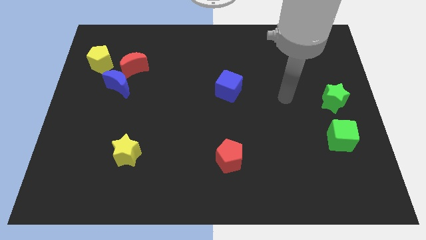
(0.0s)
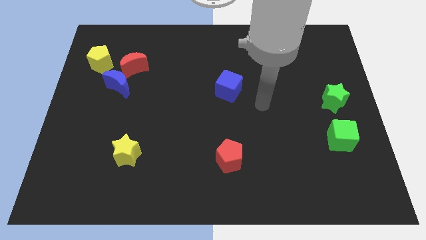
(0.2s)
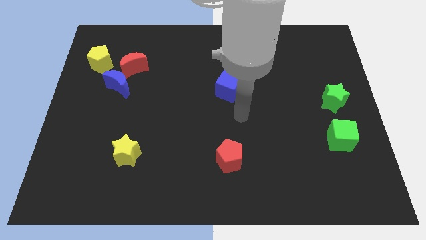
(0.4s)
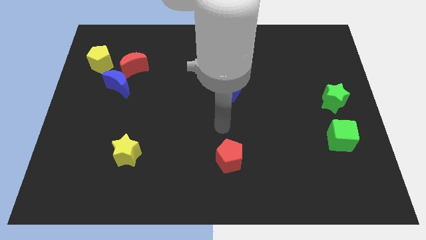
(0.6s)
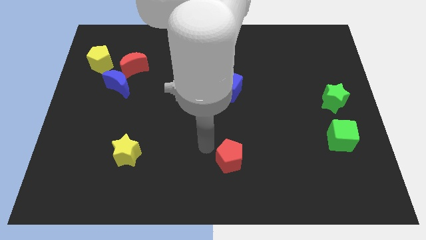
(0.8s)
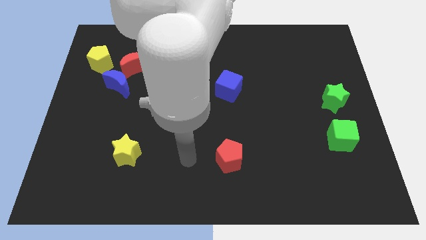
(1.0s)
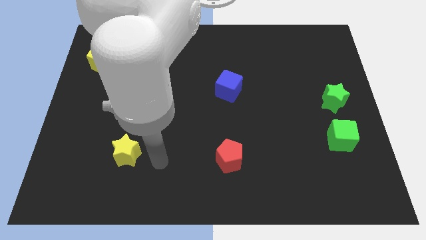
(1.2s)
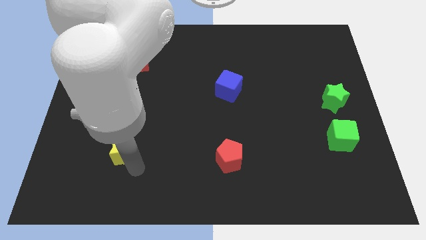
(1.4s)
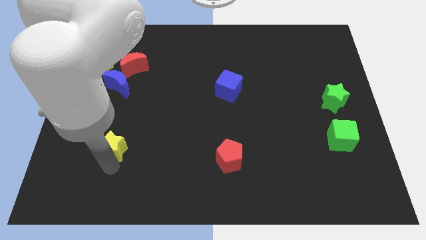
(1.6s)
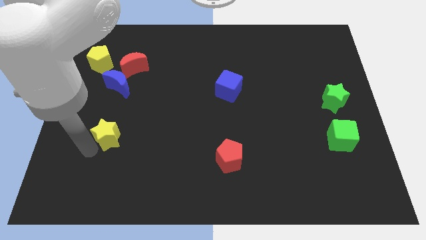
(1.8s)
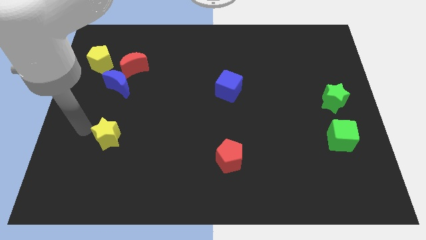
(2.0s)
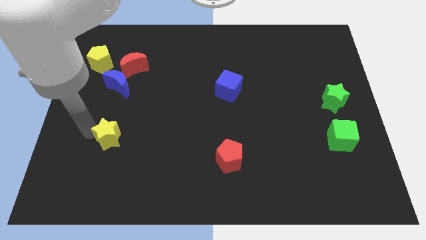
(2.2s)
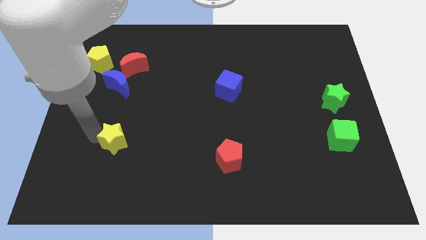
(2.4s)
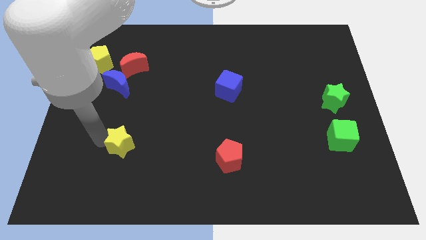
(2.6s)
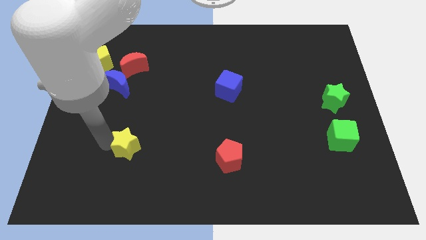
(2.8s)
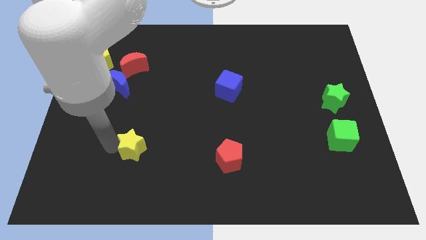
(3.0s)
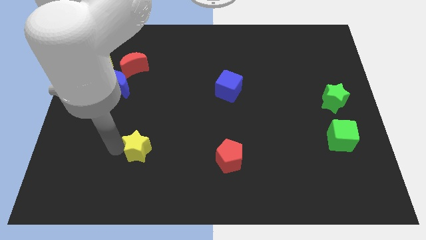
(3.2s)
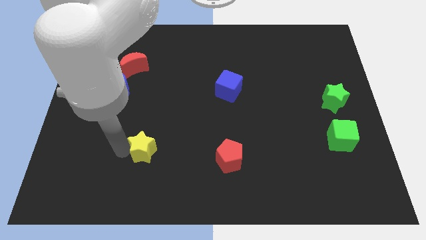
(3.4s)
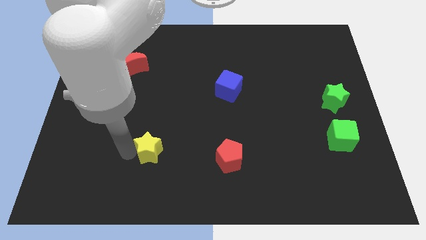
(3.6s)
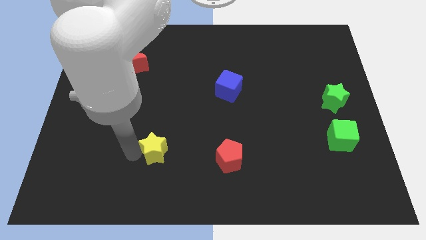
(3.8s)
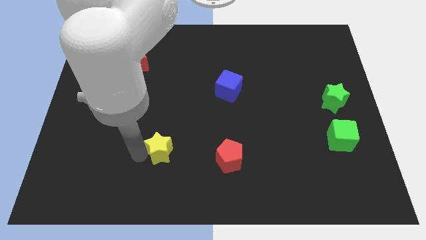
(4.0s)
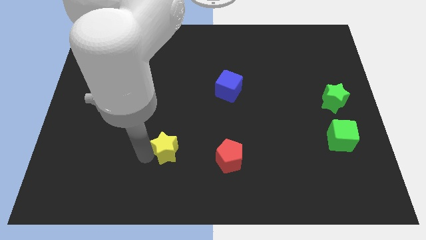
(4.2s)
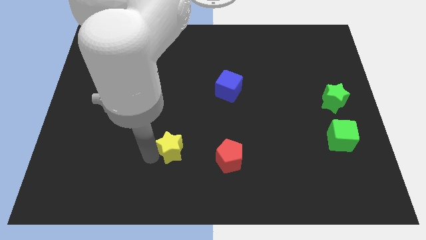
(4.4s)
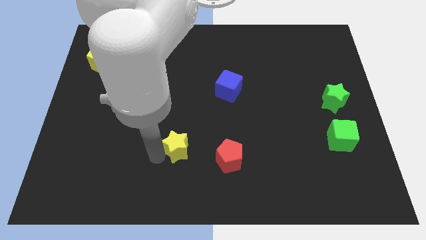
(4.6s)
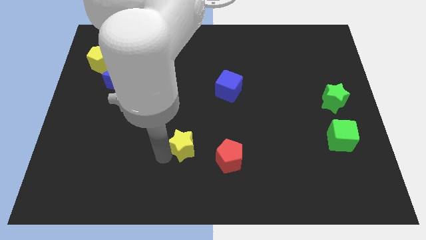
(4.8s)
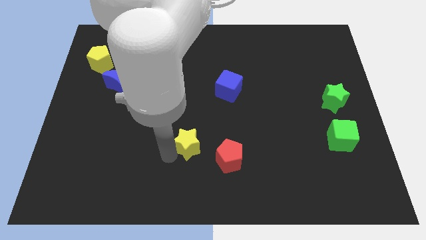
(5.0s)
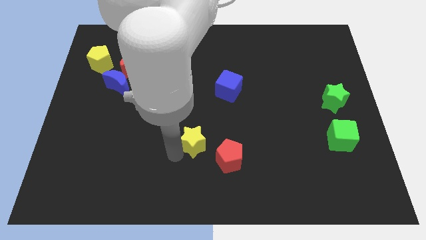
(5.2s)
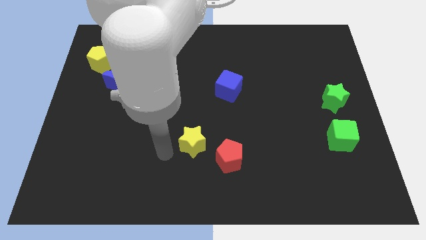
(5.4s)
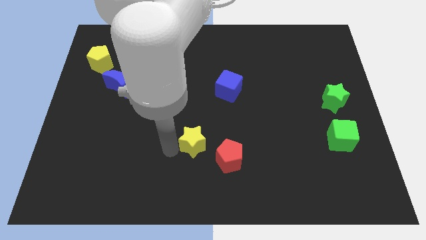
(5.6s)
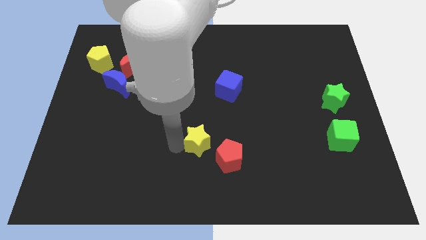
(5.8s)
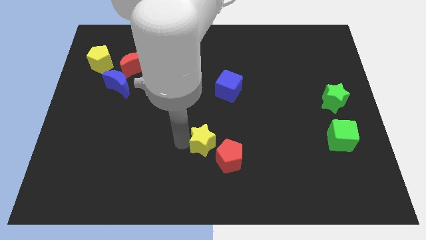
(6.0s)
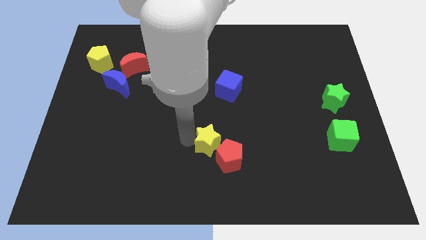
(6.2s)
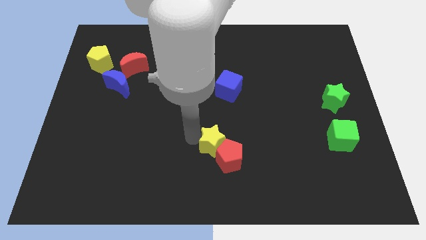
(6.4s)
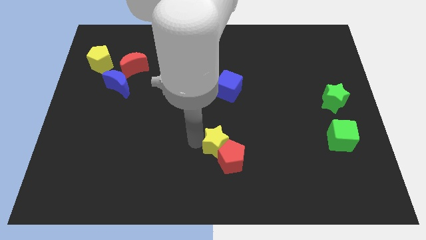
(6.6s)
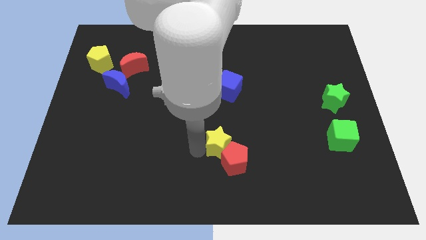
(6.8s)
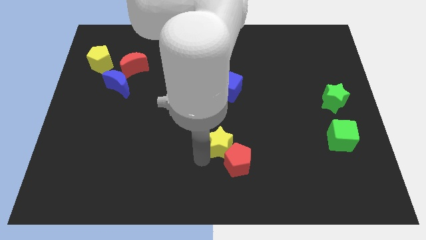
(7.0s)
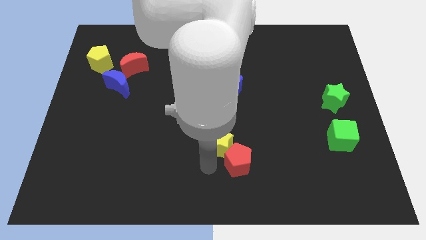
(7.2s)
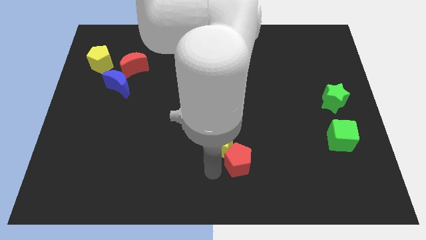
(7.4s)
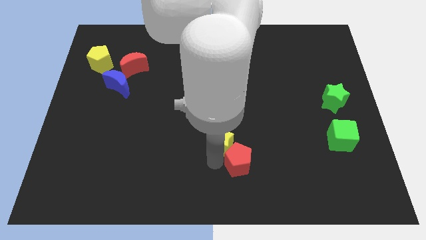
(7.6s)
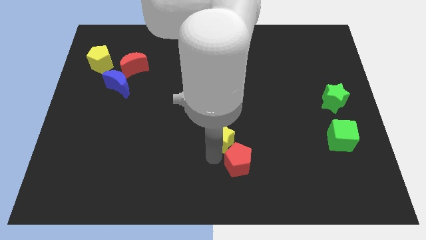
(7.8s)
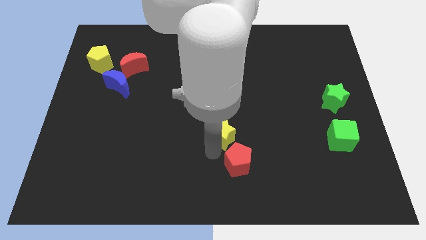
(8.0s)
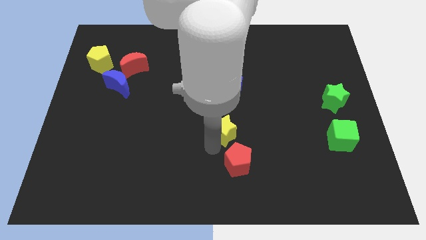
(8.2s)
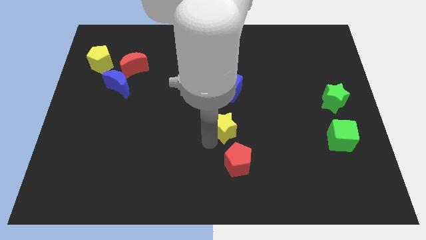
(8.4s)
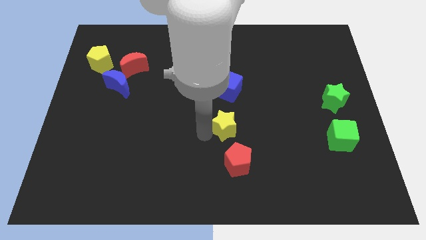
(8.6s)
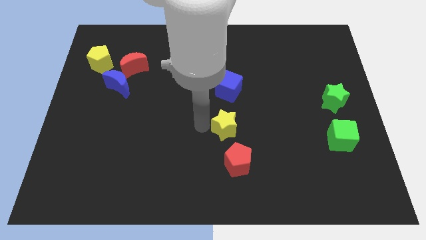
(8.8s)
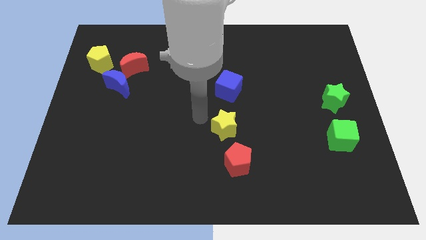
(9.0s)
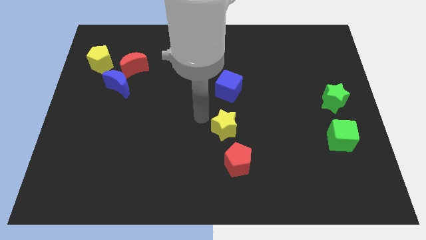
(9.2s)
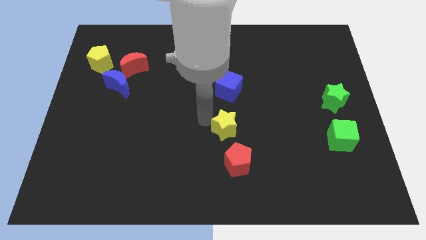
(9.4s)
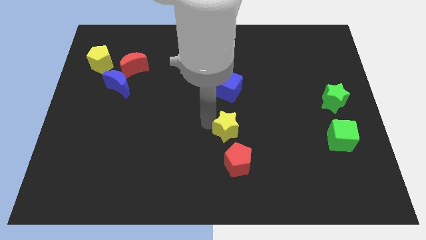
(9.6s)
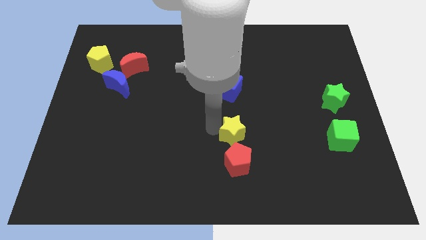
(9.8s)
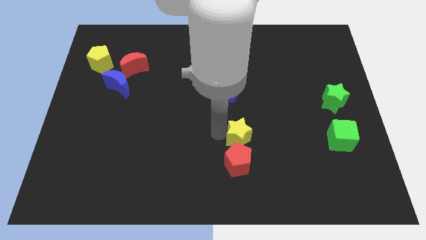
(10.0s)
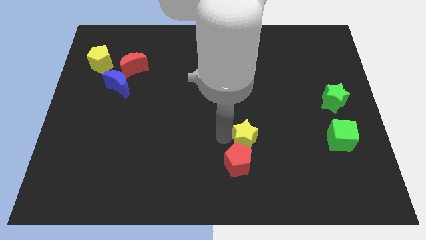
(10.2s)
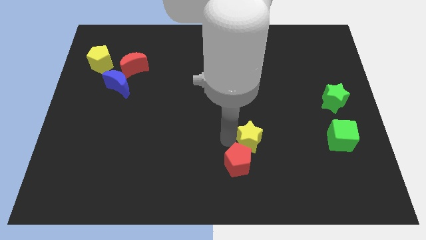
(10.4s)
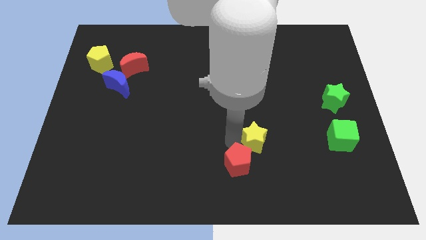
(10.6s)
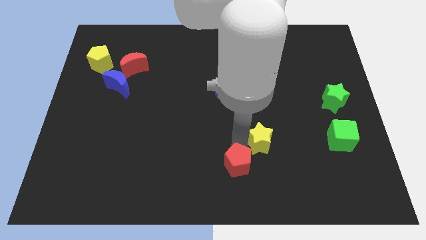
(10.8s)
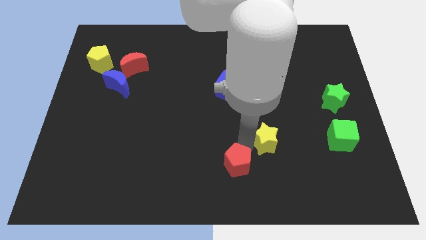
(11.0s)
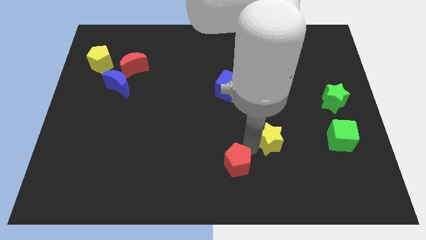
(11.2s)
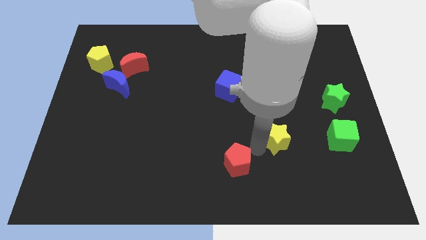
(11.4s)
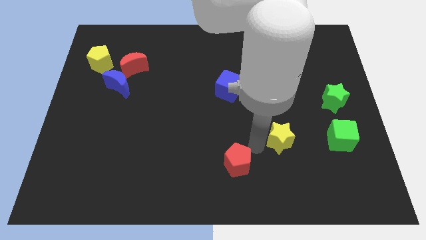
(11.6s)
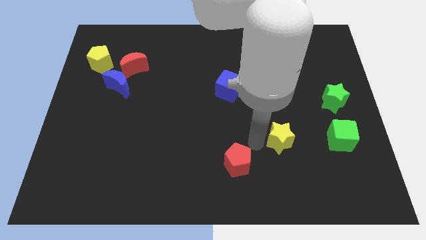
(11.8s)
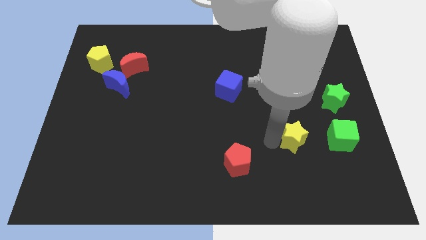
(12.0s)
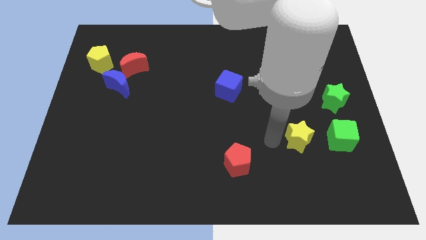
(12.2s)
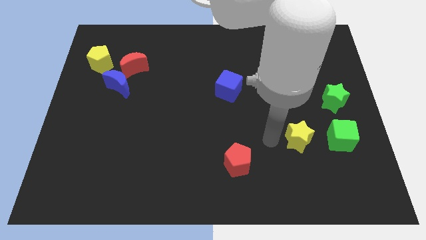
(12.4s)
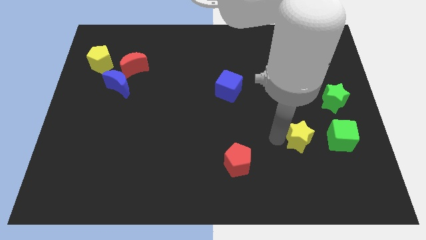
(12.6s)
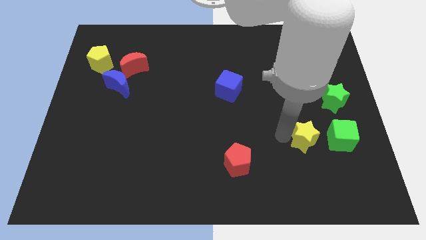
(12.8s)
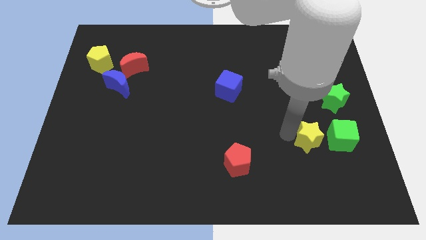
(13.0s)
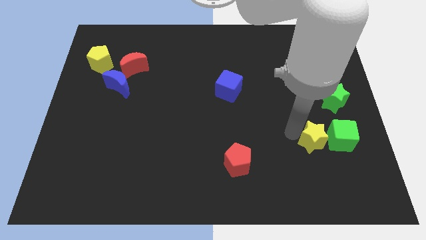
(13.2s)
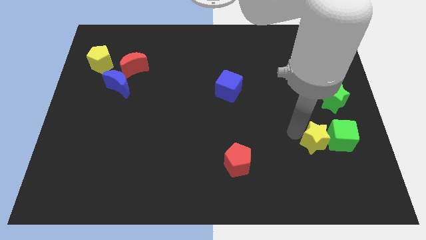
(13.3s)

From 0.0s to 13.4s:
slide the yellow star next to the green cube

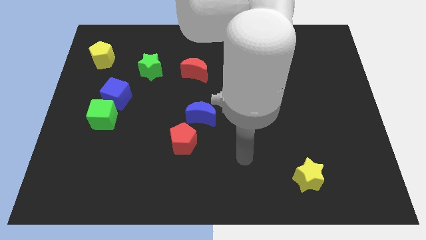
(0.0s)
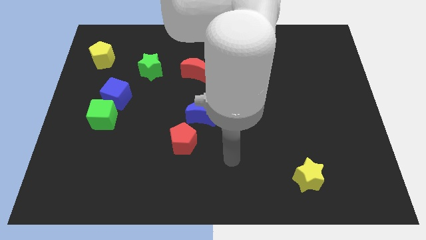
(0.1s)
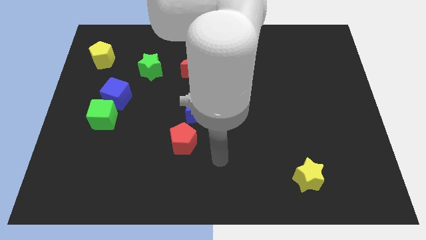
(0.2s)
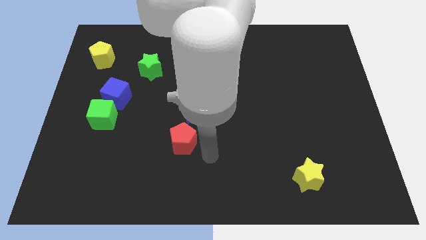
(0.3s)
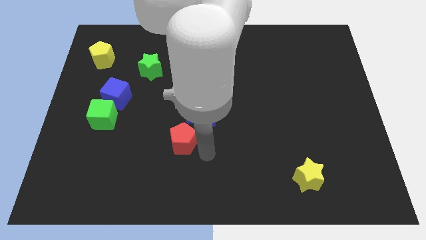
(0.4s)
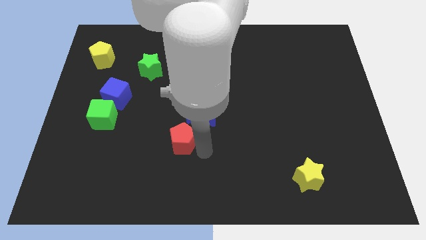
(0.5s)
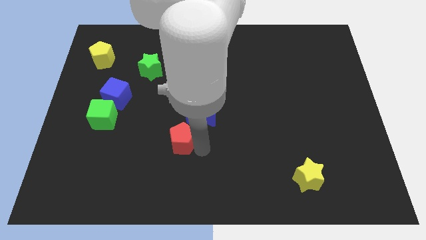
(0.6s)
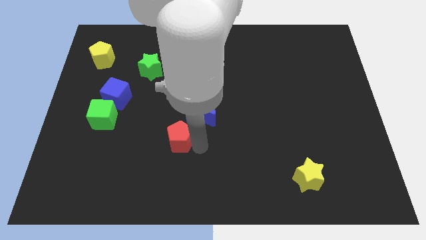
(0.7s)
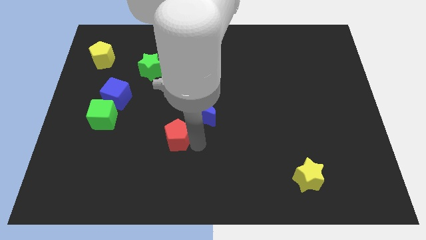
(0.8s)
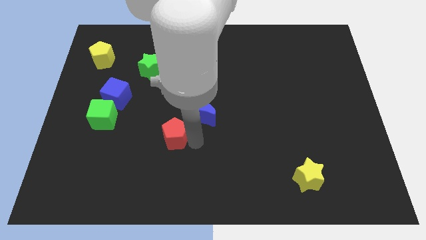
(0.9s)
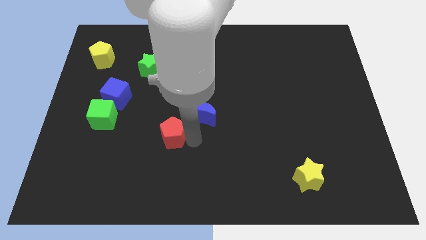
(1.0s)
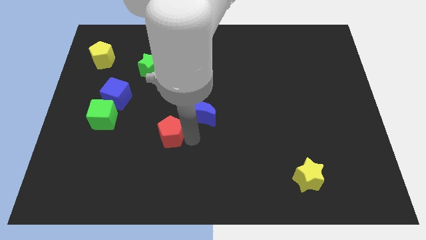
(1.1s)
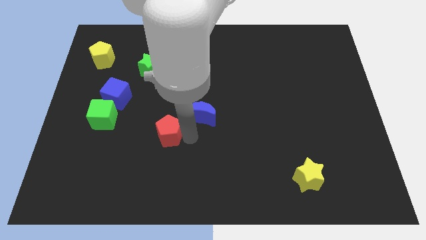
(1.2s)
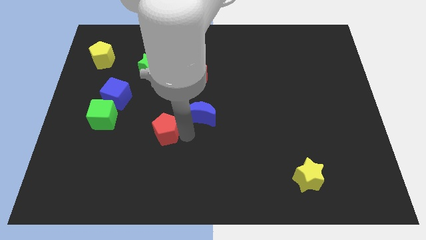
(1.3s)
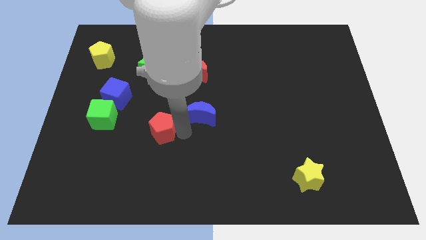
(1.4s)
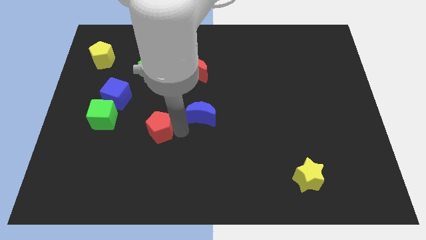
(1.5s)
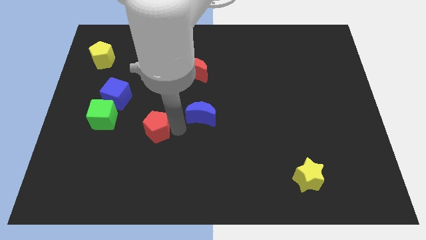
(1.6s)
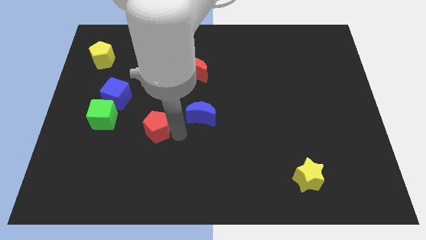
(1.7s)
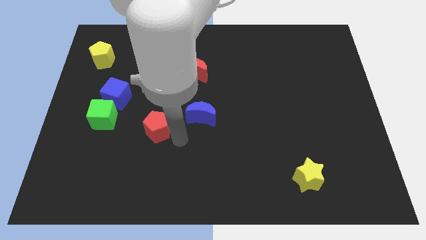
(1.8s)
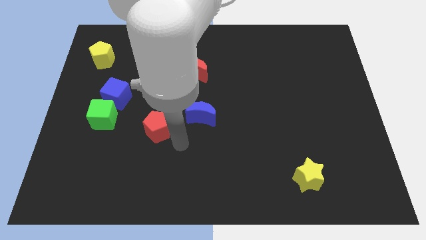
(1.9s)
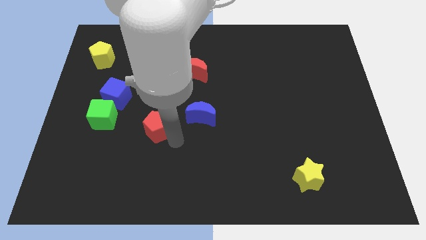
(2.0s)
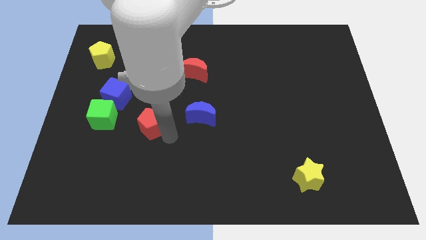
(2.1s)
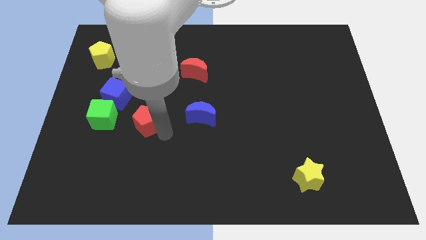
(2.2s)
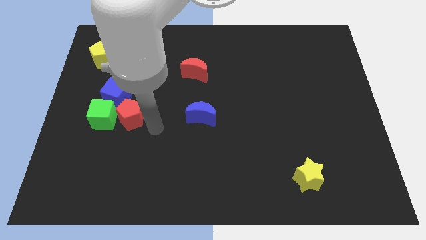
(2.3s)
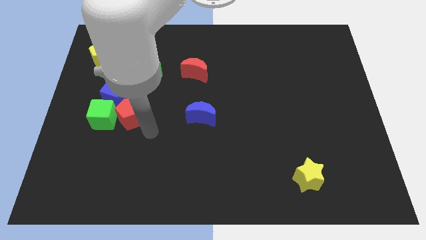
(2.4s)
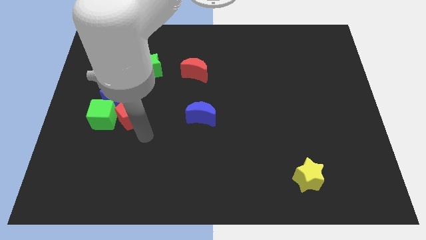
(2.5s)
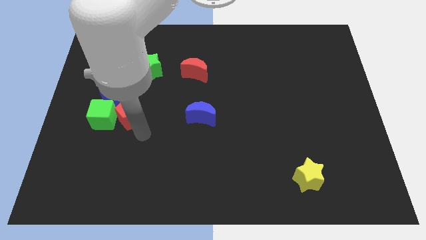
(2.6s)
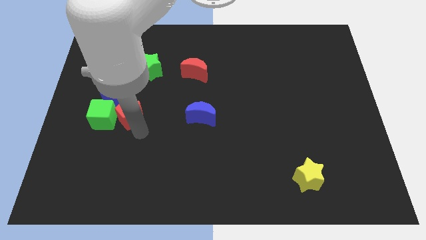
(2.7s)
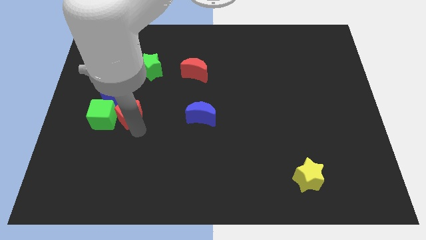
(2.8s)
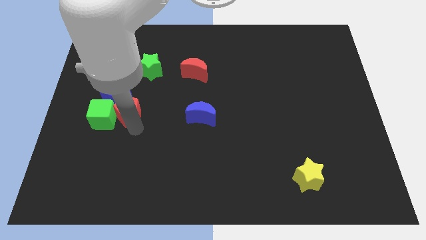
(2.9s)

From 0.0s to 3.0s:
slide the red pentagon close to the blue cube
